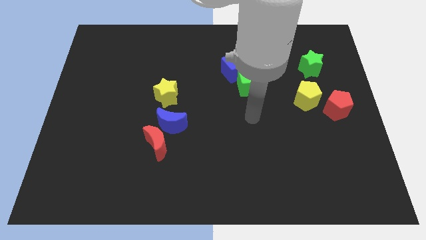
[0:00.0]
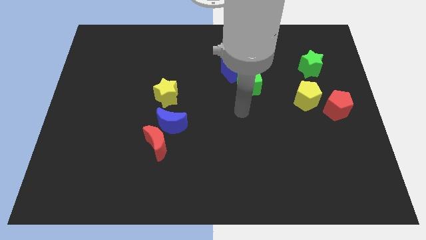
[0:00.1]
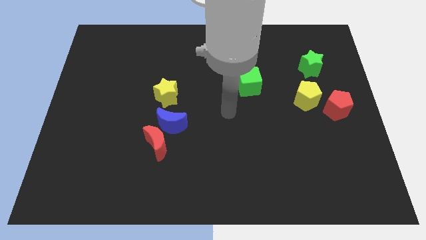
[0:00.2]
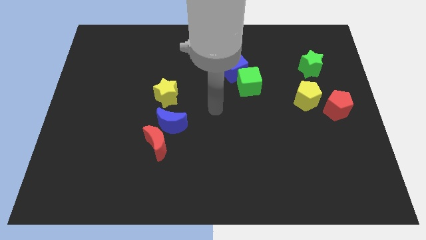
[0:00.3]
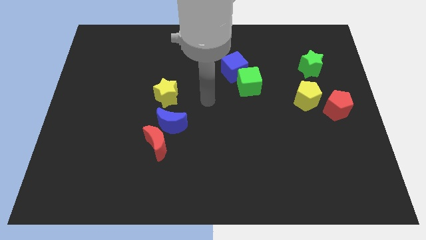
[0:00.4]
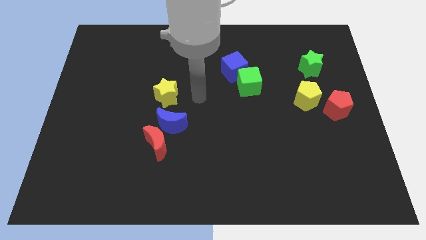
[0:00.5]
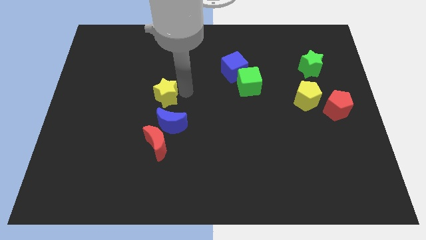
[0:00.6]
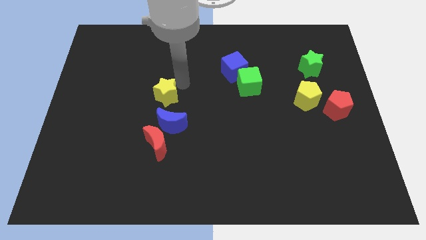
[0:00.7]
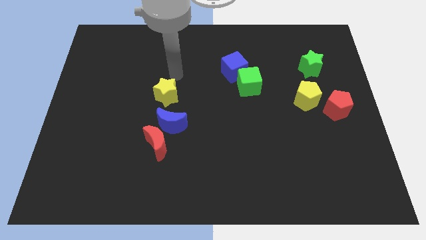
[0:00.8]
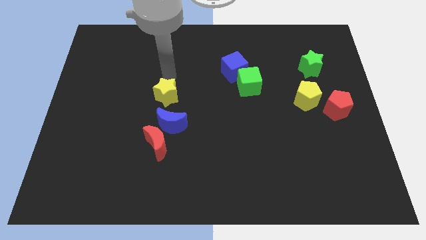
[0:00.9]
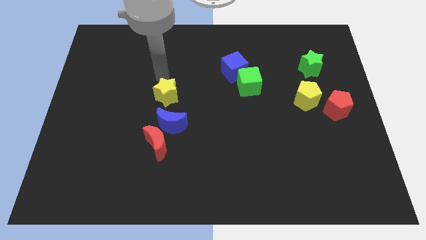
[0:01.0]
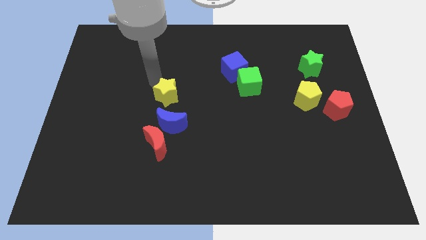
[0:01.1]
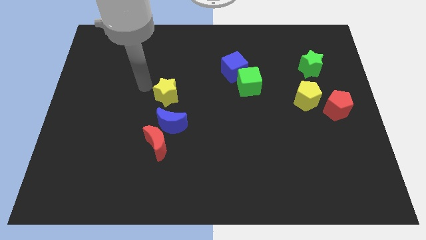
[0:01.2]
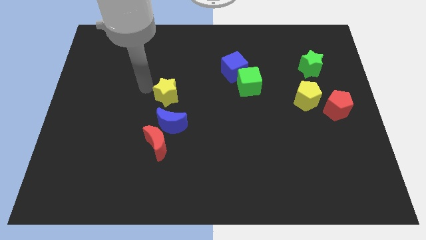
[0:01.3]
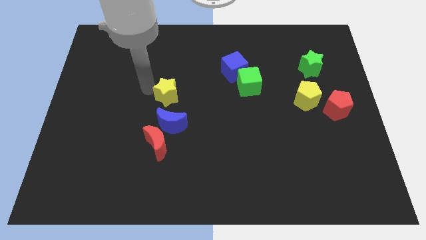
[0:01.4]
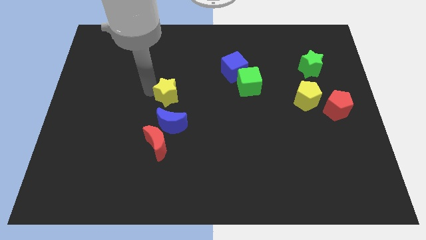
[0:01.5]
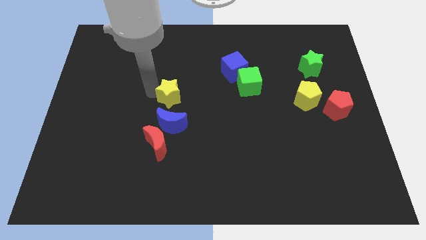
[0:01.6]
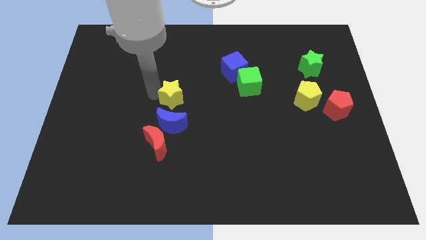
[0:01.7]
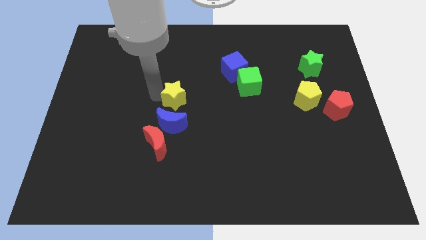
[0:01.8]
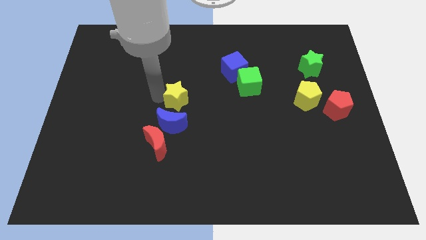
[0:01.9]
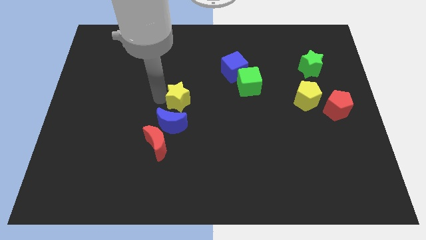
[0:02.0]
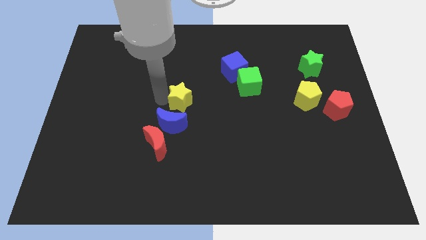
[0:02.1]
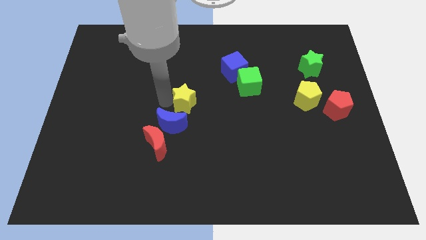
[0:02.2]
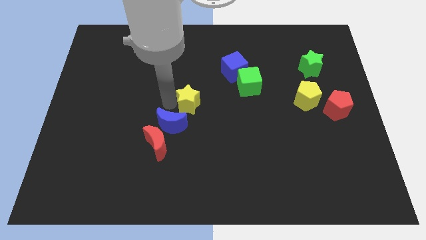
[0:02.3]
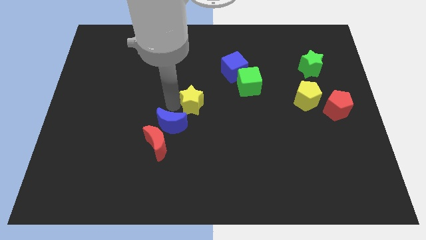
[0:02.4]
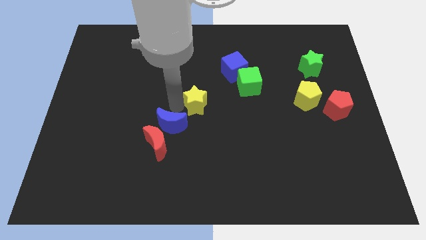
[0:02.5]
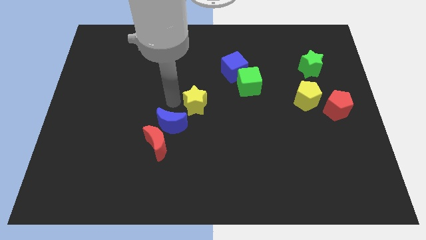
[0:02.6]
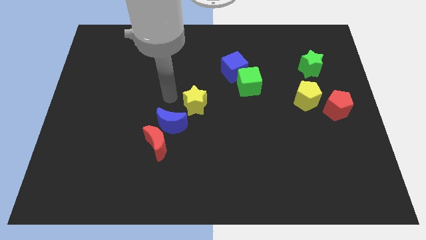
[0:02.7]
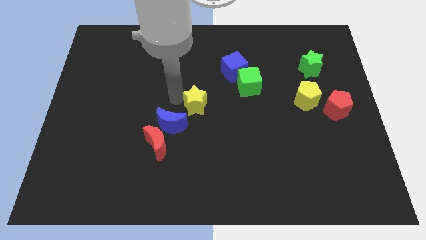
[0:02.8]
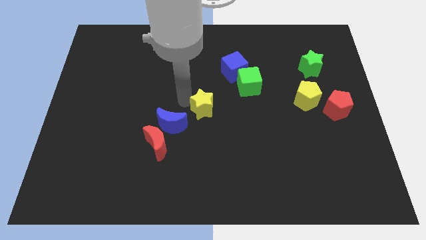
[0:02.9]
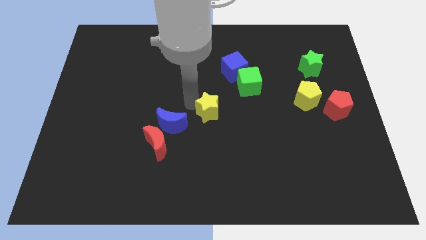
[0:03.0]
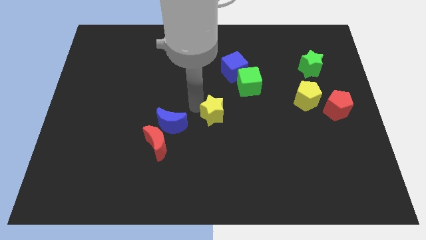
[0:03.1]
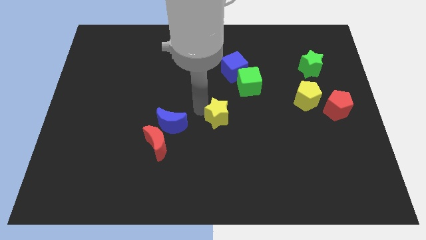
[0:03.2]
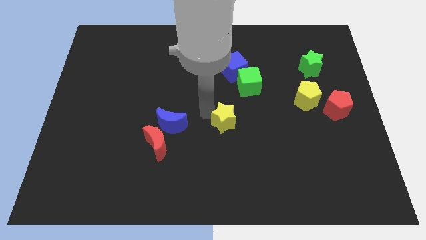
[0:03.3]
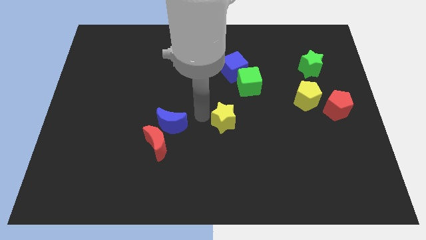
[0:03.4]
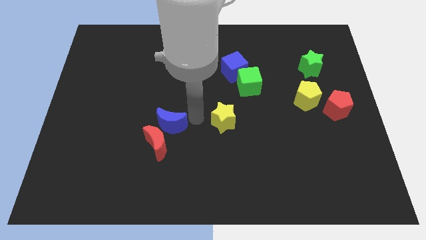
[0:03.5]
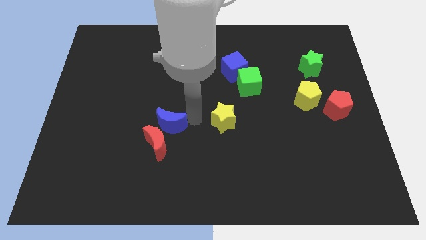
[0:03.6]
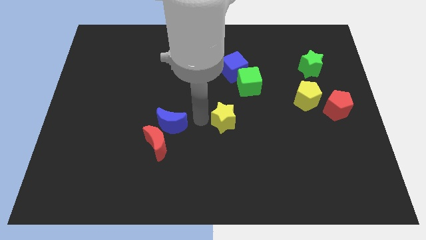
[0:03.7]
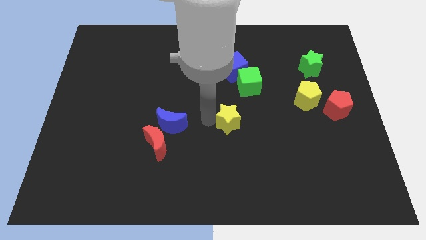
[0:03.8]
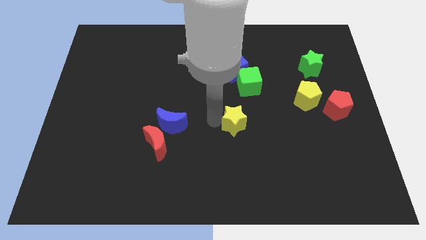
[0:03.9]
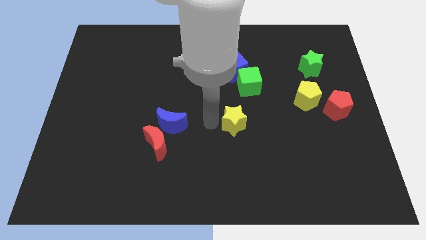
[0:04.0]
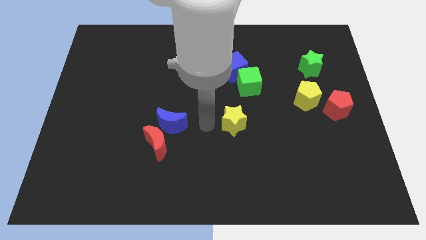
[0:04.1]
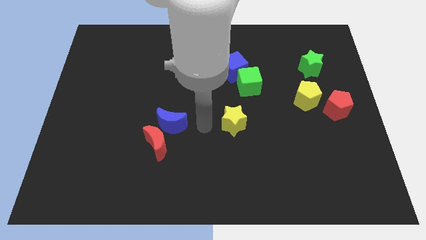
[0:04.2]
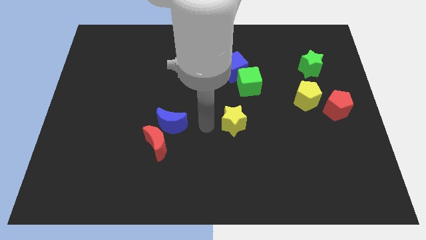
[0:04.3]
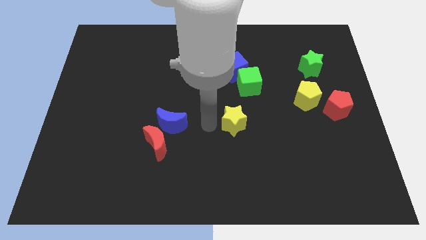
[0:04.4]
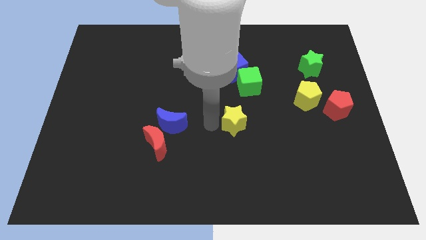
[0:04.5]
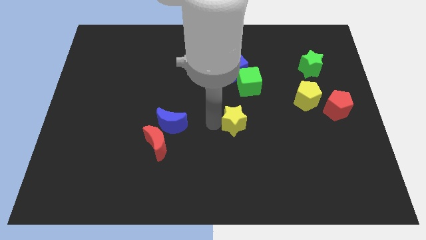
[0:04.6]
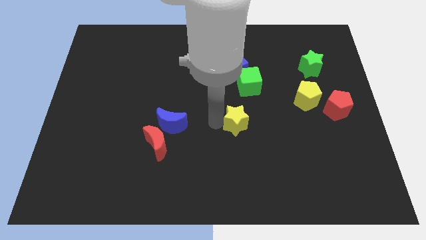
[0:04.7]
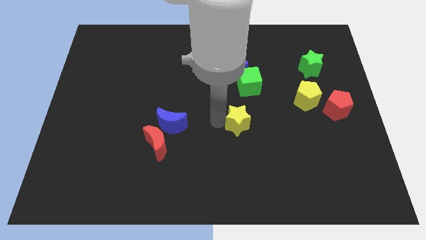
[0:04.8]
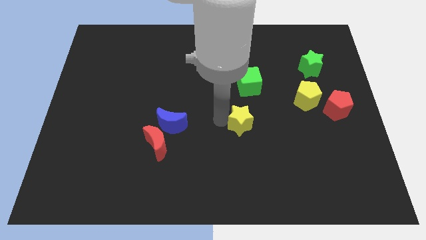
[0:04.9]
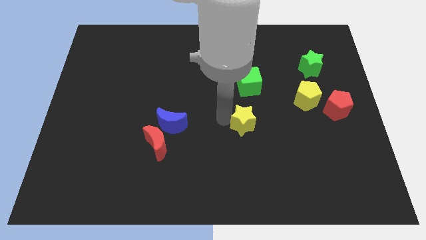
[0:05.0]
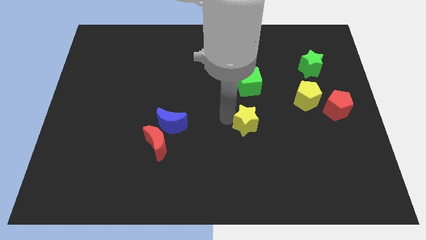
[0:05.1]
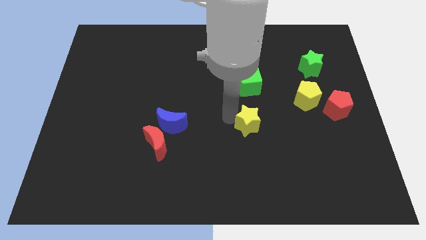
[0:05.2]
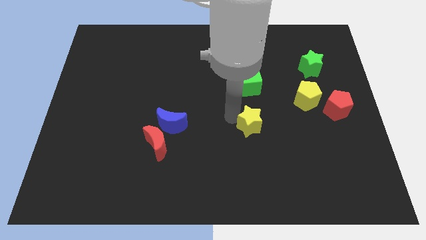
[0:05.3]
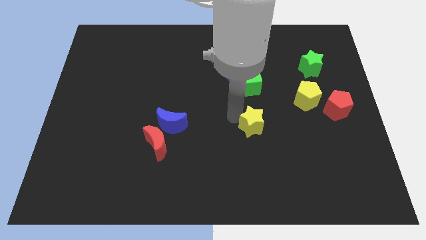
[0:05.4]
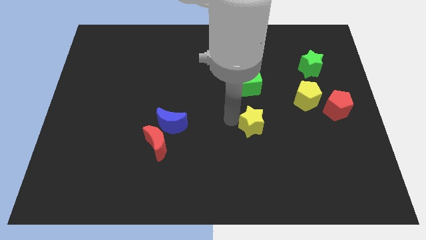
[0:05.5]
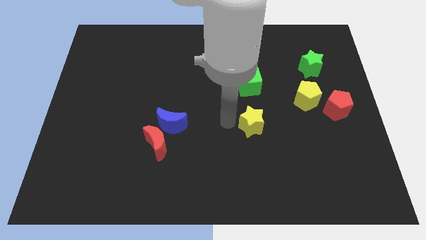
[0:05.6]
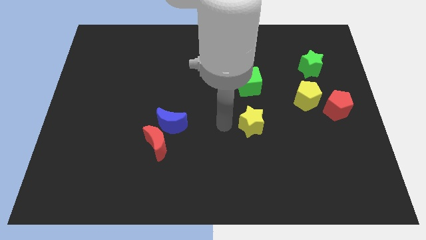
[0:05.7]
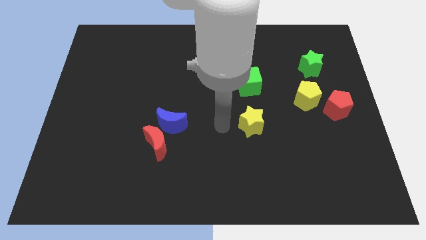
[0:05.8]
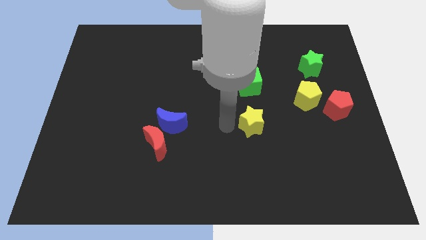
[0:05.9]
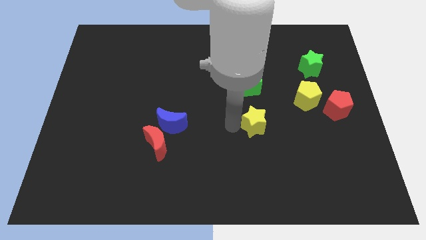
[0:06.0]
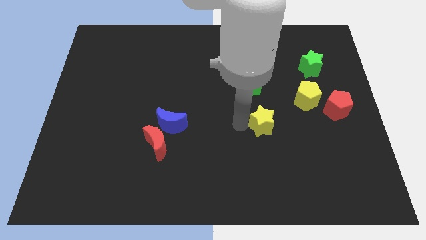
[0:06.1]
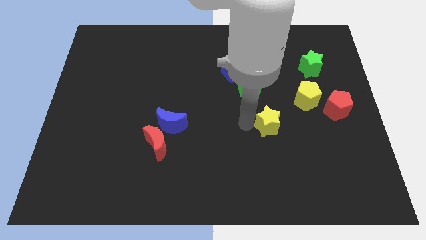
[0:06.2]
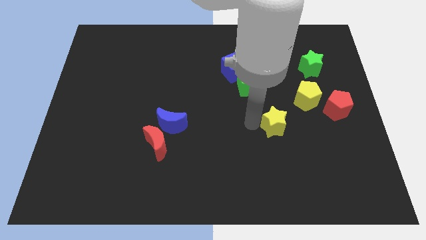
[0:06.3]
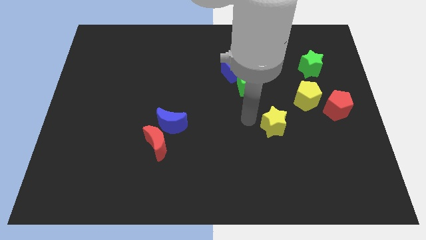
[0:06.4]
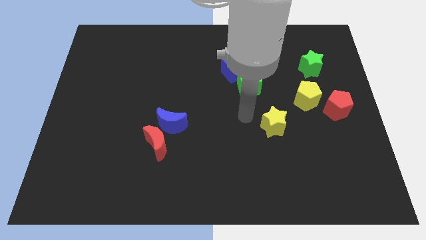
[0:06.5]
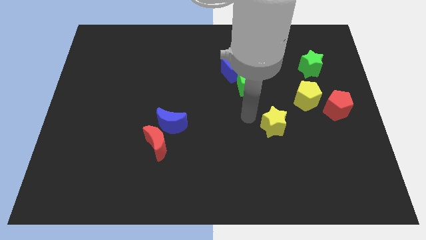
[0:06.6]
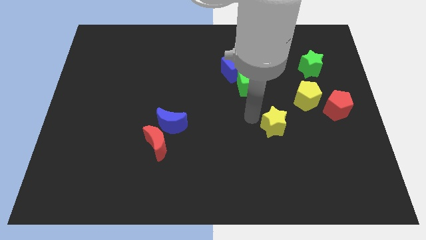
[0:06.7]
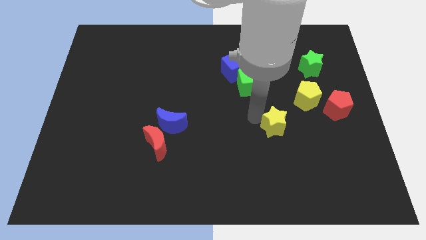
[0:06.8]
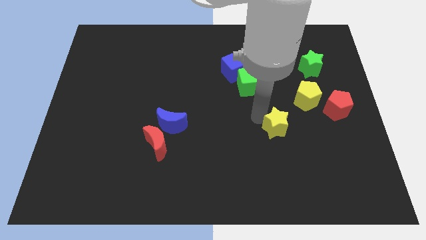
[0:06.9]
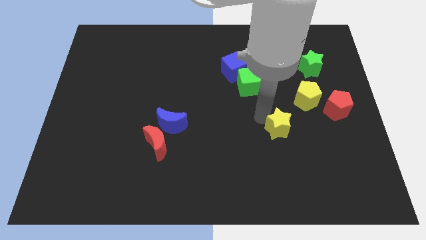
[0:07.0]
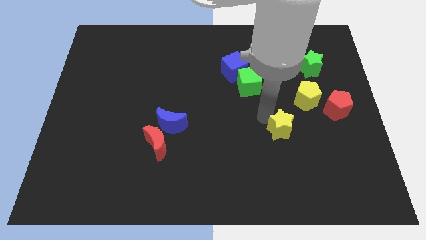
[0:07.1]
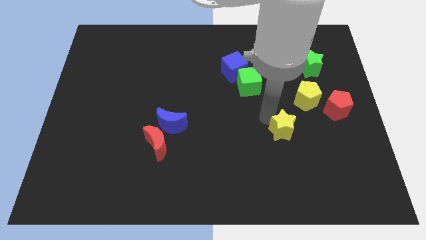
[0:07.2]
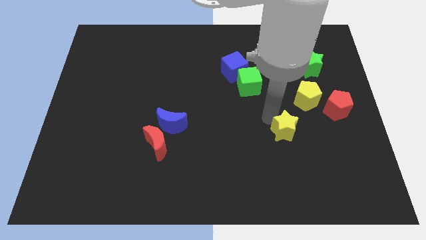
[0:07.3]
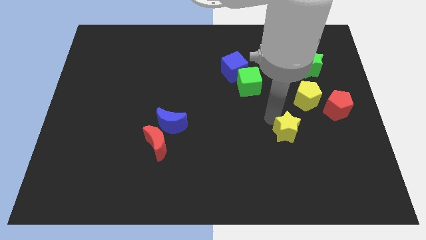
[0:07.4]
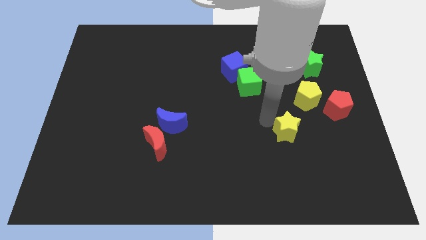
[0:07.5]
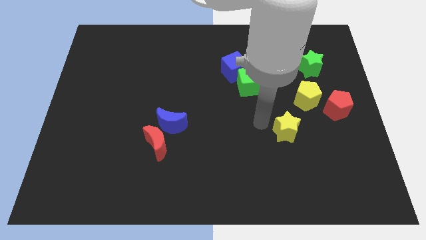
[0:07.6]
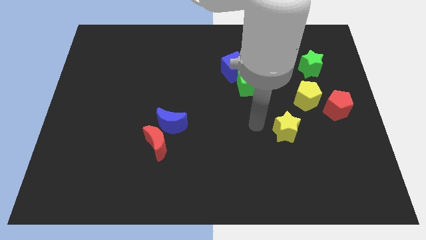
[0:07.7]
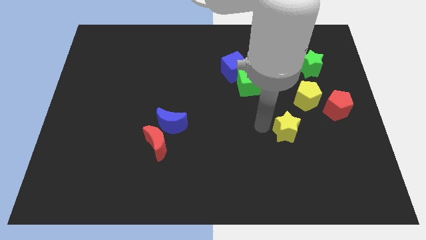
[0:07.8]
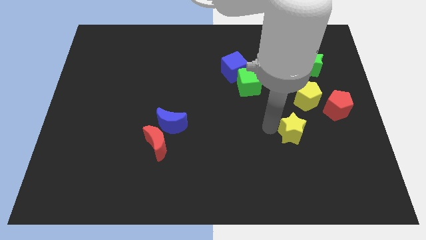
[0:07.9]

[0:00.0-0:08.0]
put the yellow star below the yellow pentagon
